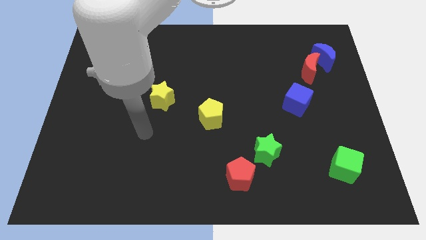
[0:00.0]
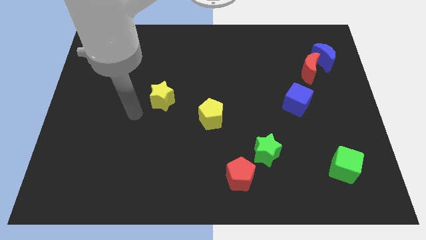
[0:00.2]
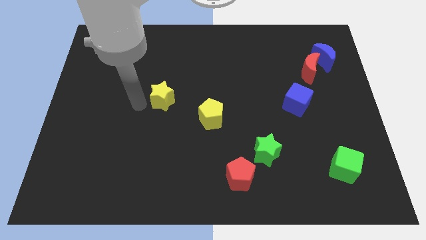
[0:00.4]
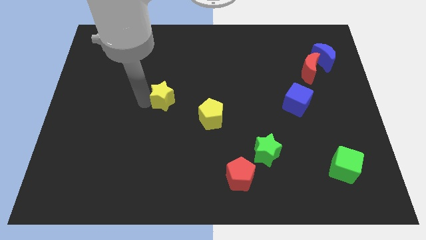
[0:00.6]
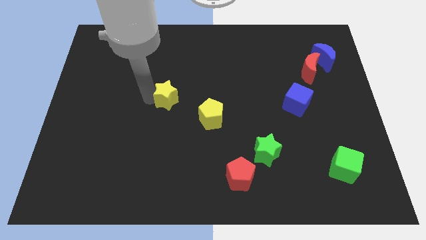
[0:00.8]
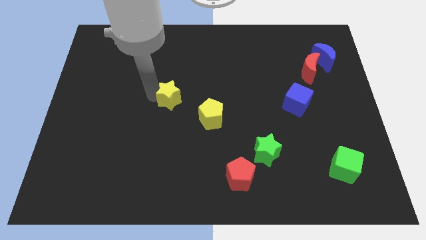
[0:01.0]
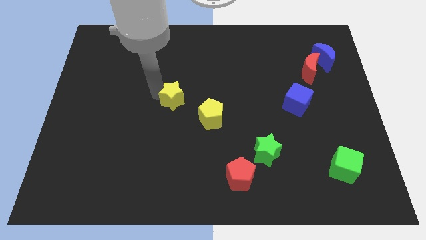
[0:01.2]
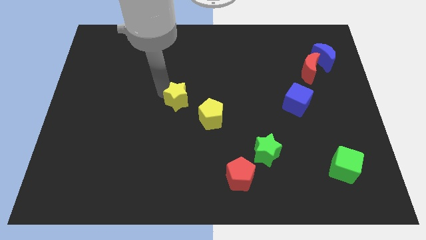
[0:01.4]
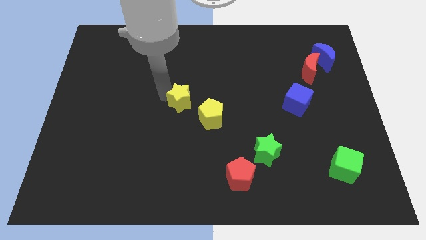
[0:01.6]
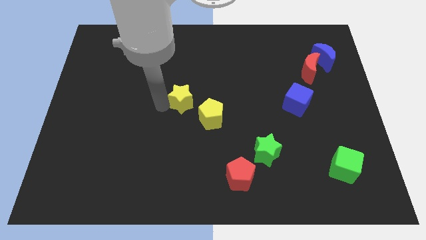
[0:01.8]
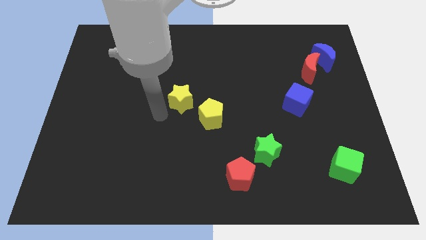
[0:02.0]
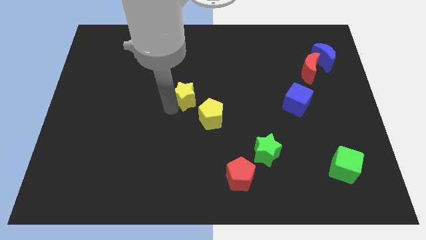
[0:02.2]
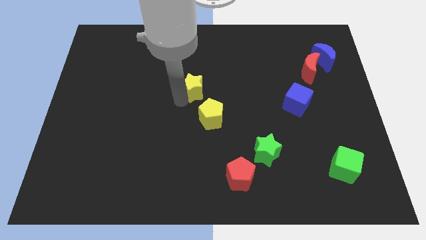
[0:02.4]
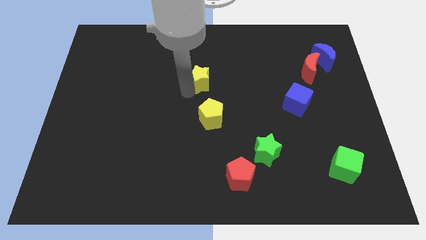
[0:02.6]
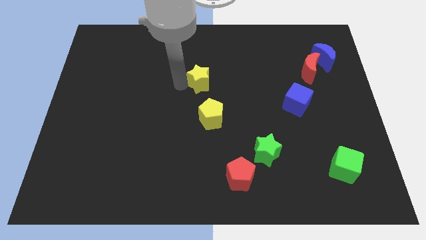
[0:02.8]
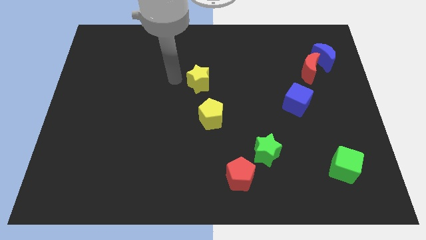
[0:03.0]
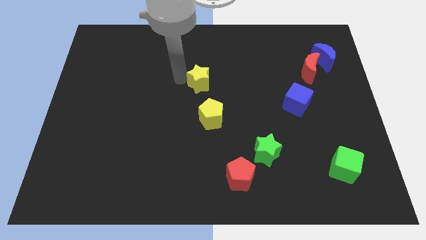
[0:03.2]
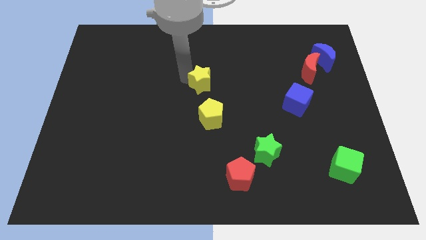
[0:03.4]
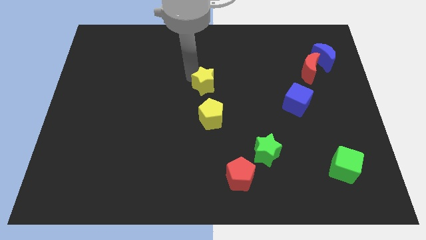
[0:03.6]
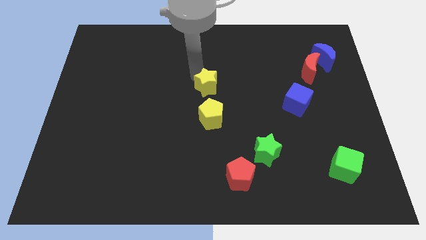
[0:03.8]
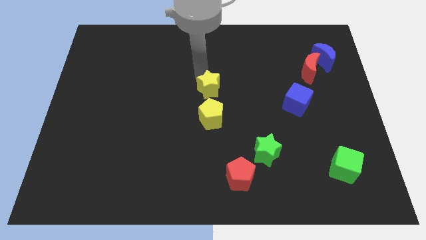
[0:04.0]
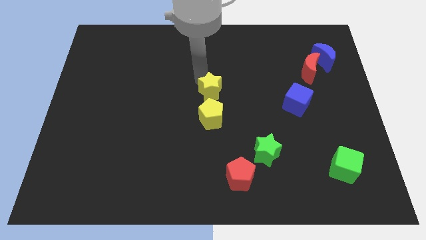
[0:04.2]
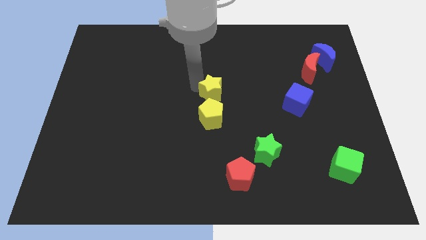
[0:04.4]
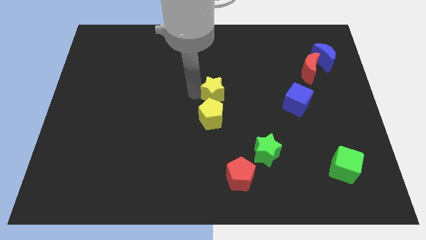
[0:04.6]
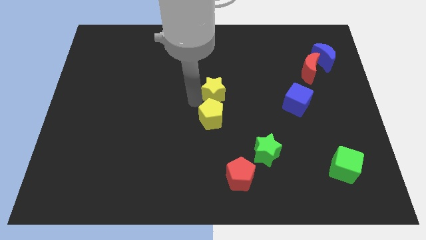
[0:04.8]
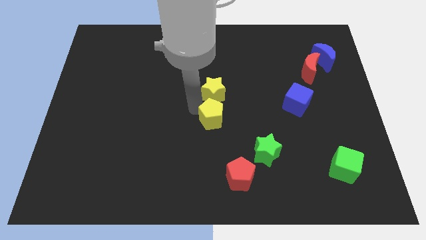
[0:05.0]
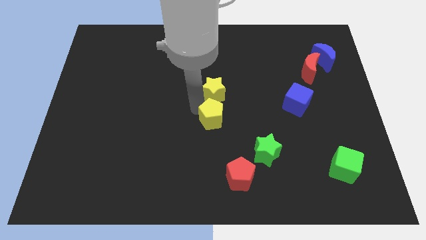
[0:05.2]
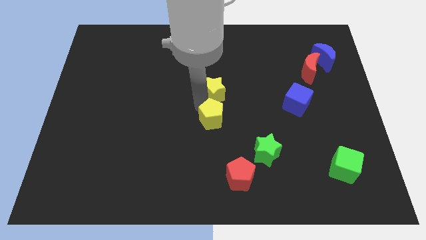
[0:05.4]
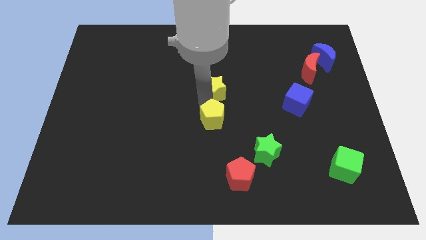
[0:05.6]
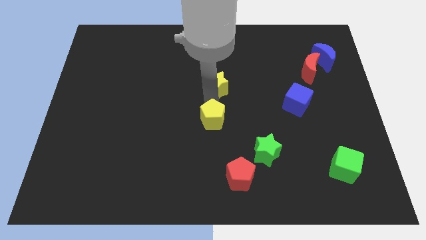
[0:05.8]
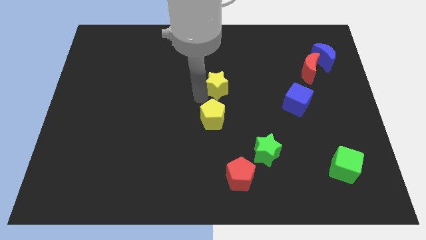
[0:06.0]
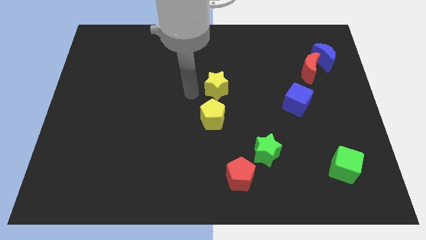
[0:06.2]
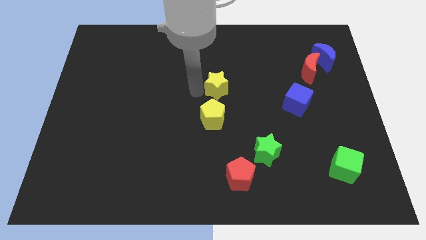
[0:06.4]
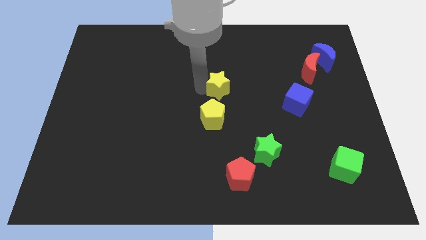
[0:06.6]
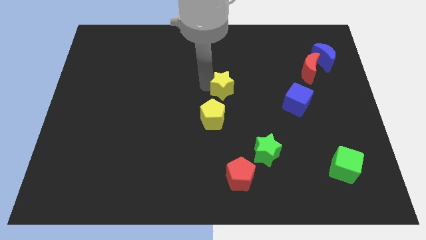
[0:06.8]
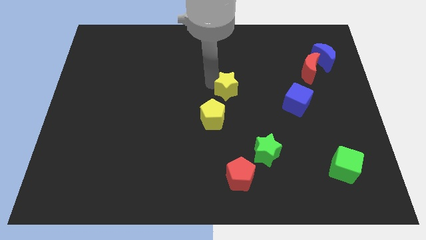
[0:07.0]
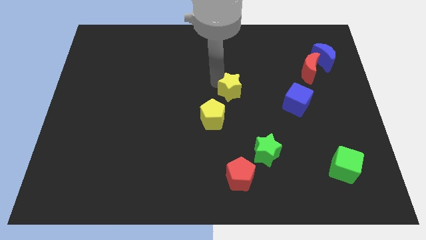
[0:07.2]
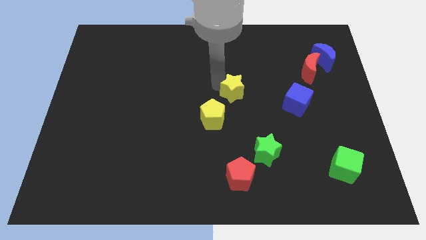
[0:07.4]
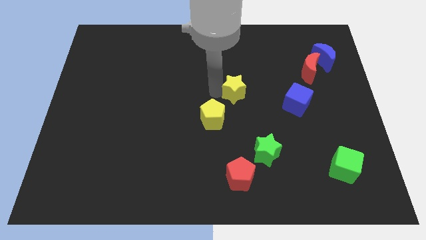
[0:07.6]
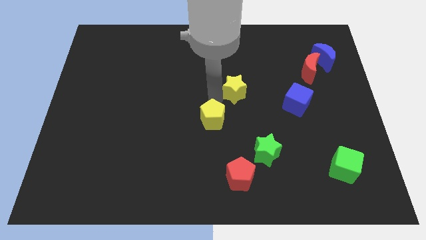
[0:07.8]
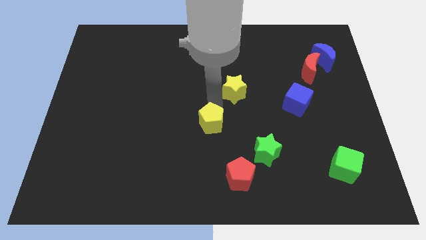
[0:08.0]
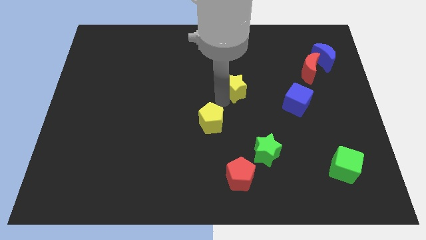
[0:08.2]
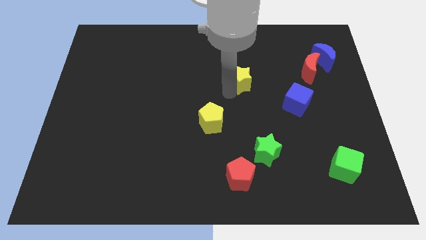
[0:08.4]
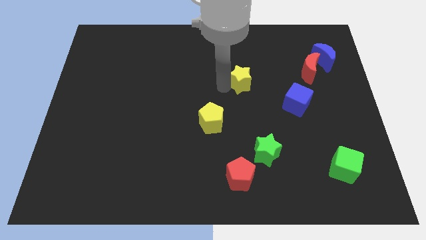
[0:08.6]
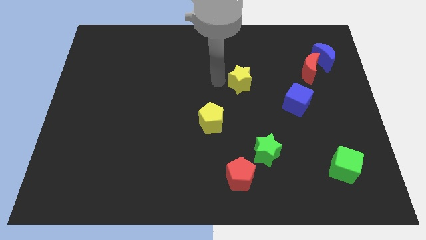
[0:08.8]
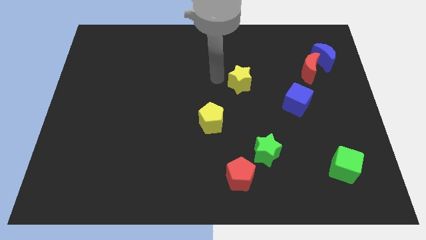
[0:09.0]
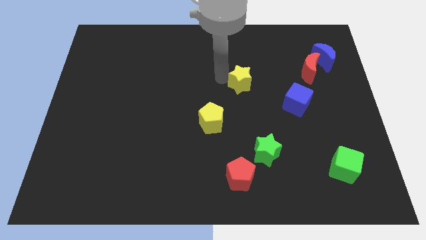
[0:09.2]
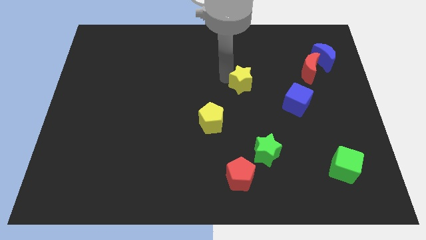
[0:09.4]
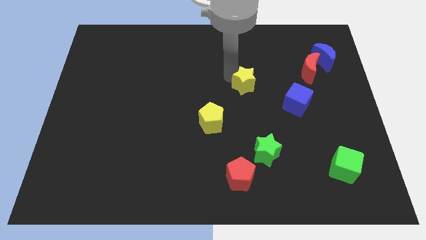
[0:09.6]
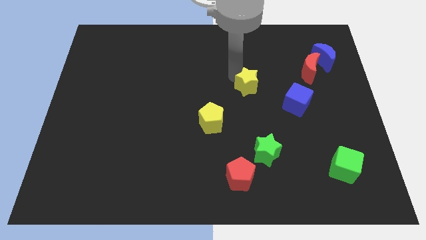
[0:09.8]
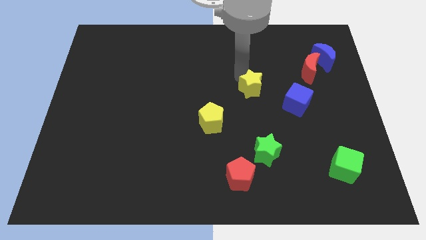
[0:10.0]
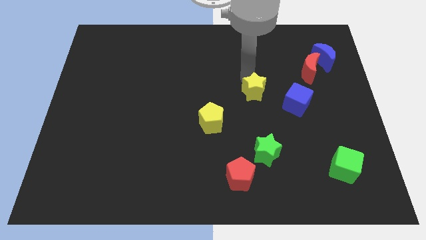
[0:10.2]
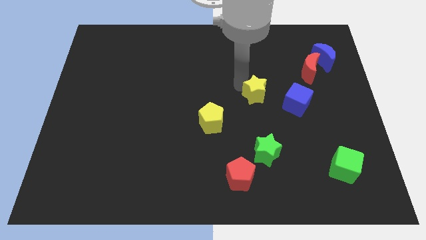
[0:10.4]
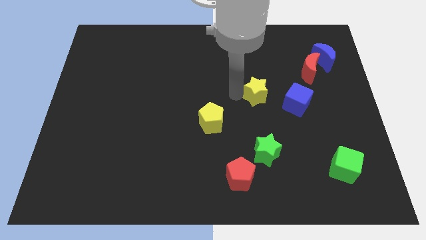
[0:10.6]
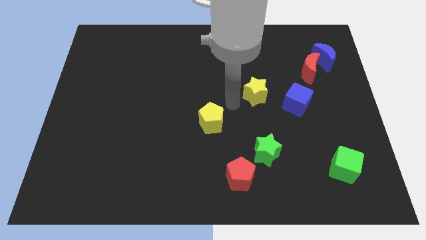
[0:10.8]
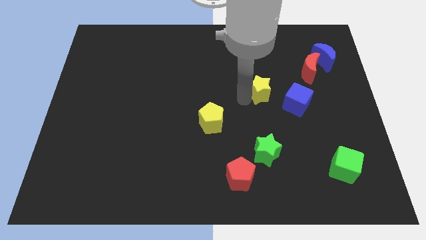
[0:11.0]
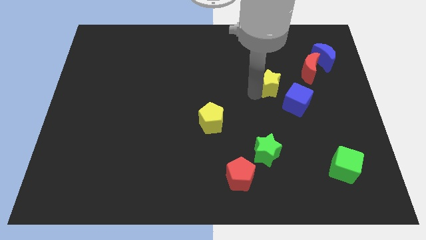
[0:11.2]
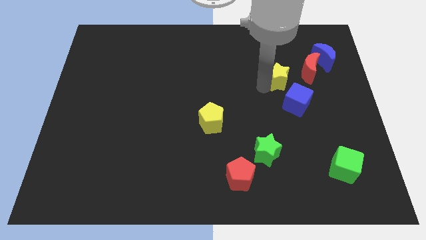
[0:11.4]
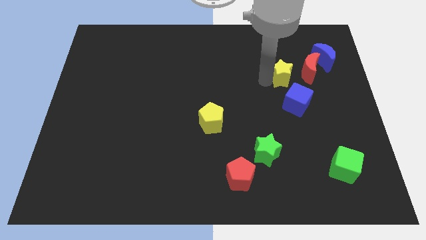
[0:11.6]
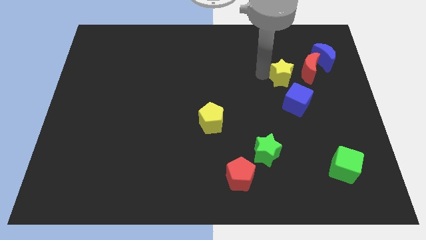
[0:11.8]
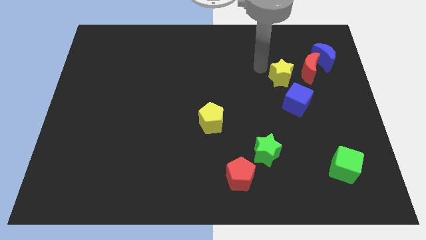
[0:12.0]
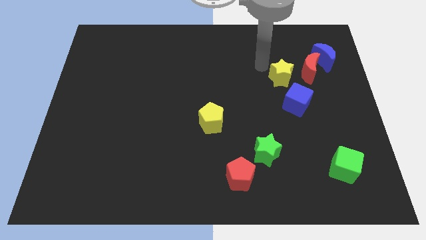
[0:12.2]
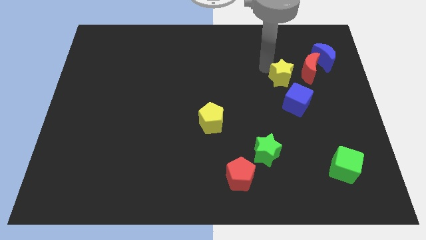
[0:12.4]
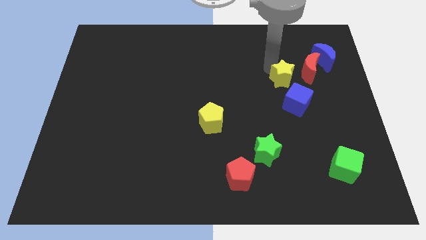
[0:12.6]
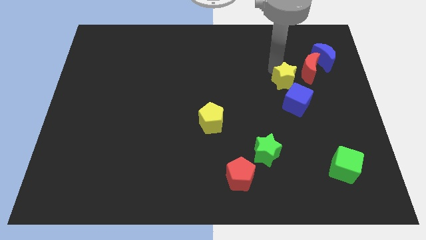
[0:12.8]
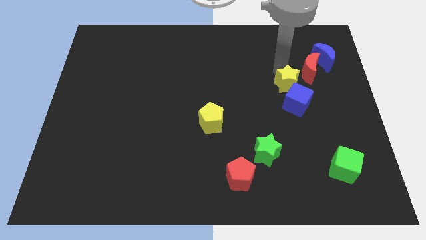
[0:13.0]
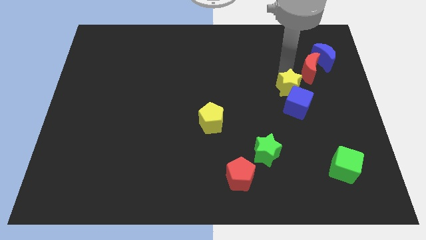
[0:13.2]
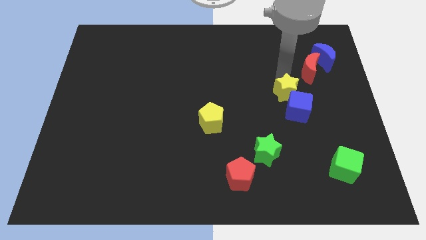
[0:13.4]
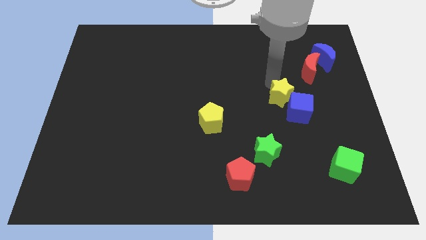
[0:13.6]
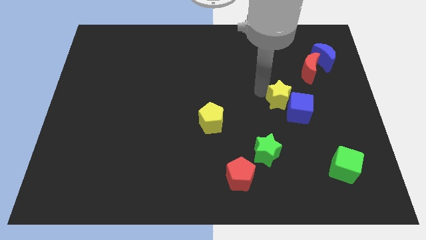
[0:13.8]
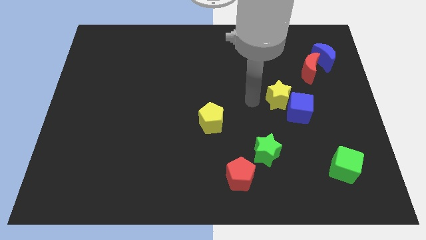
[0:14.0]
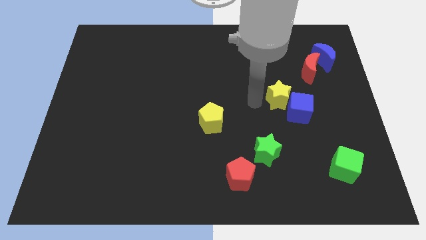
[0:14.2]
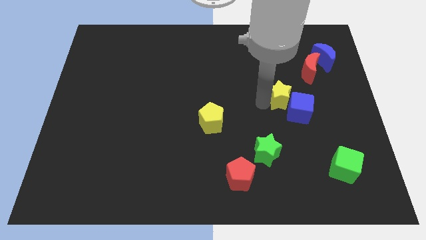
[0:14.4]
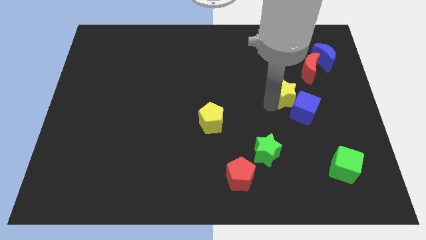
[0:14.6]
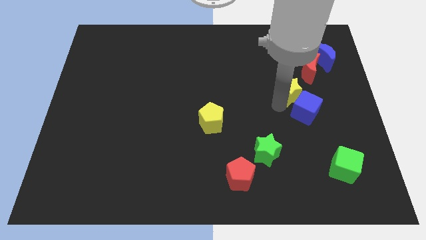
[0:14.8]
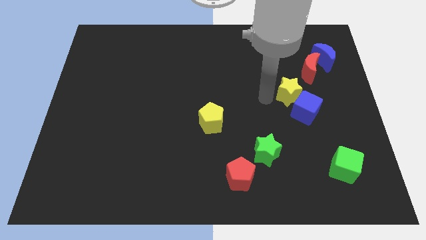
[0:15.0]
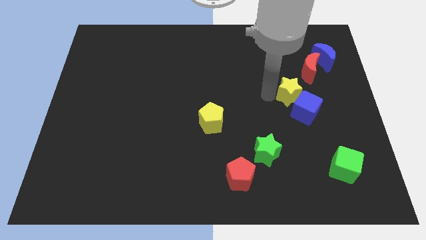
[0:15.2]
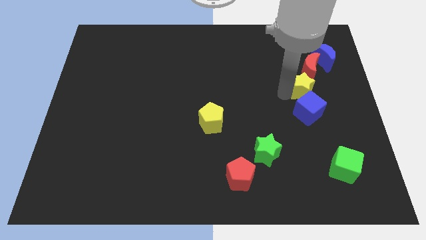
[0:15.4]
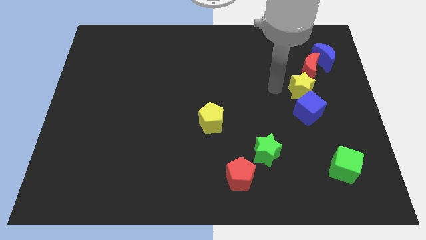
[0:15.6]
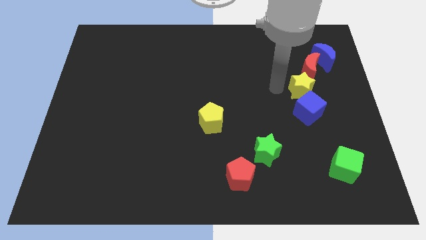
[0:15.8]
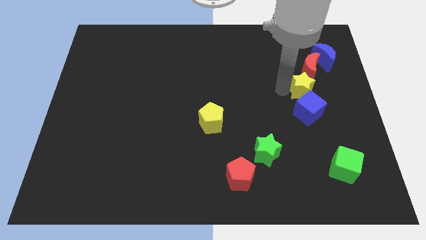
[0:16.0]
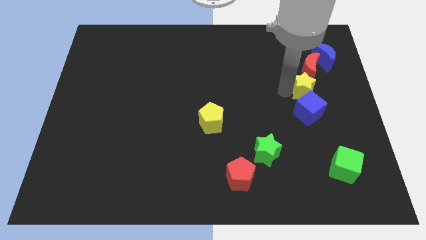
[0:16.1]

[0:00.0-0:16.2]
slide the yellow star to the top right of the blue cube
